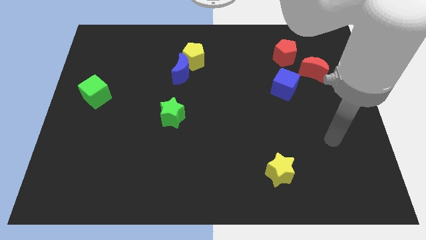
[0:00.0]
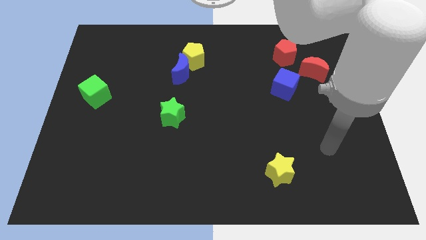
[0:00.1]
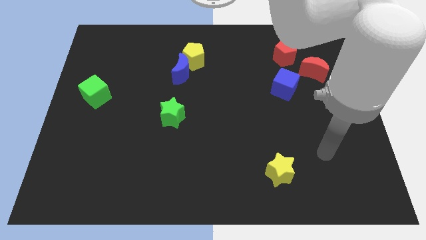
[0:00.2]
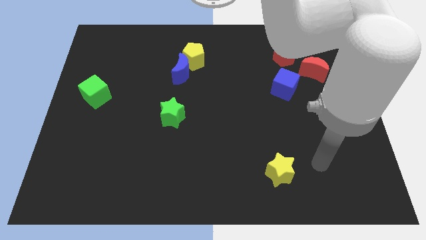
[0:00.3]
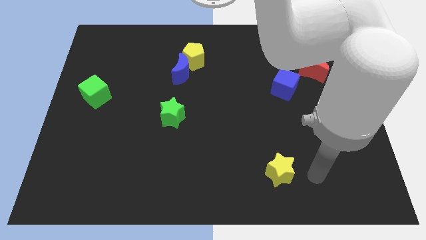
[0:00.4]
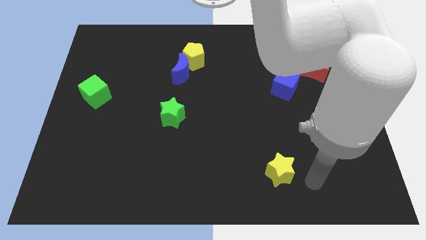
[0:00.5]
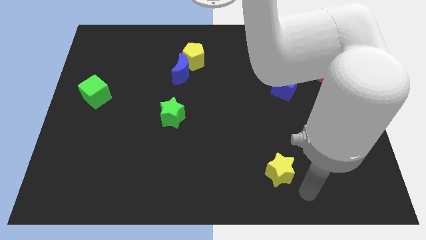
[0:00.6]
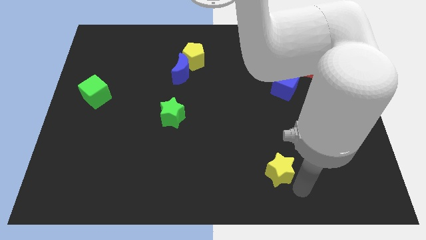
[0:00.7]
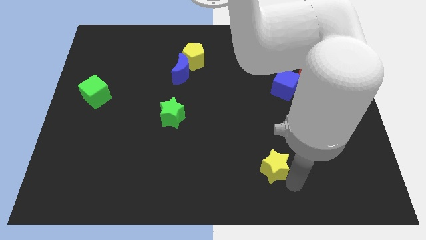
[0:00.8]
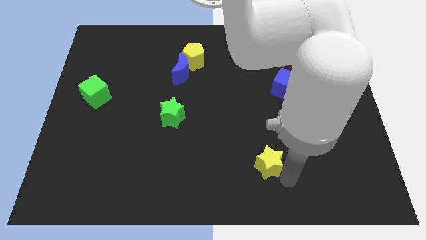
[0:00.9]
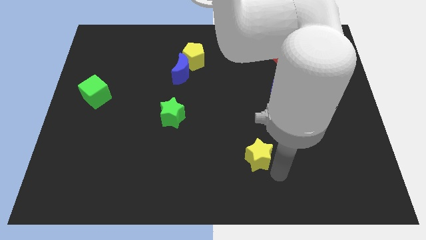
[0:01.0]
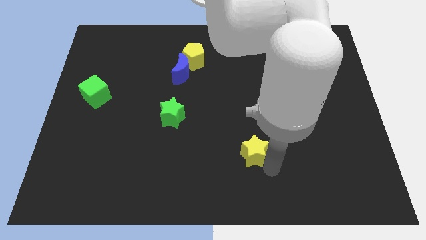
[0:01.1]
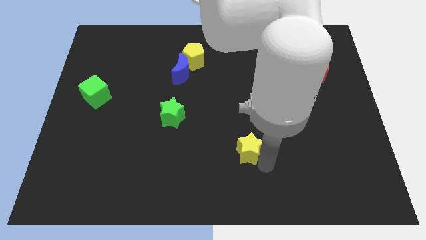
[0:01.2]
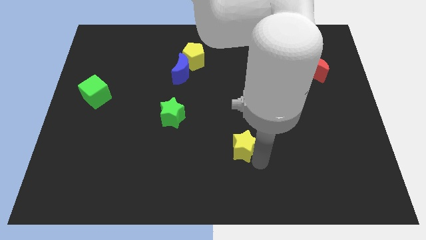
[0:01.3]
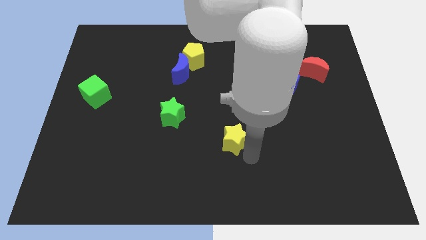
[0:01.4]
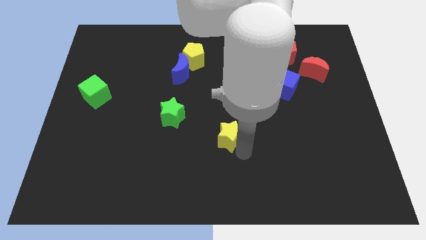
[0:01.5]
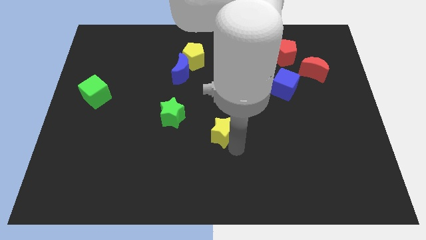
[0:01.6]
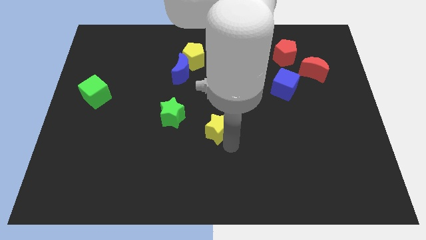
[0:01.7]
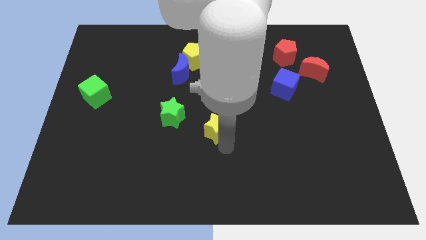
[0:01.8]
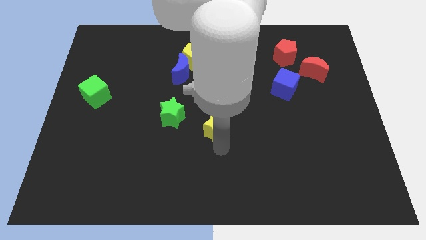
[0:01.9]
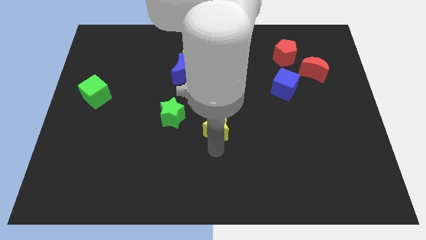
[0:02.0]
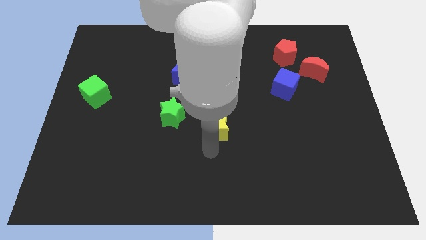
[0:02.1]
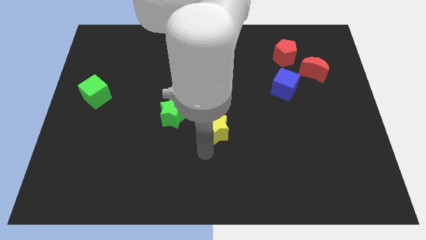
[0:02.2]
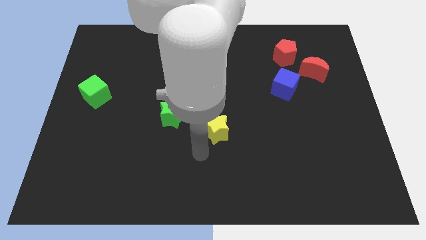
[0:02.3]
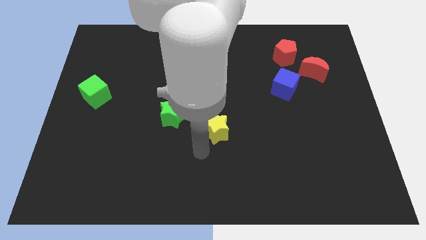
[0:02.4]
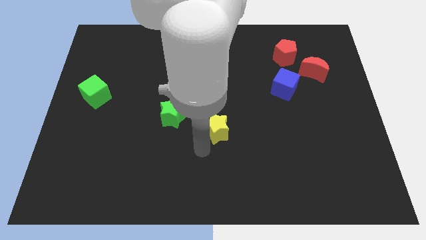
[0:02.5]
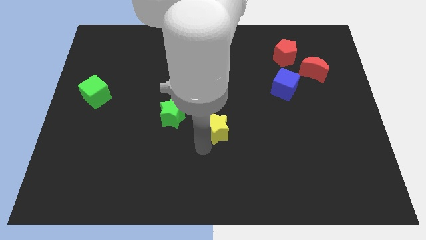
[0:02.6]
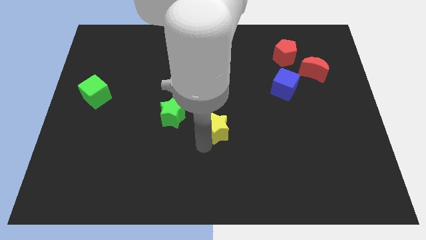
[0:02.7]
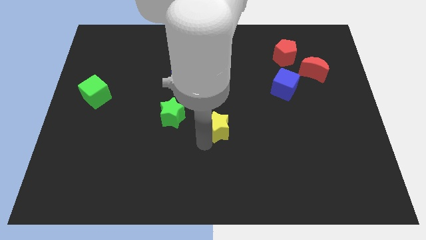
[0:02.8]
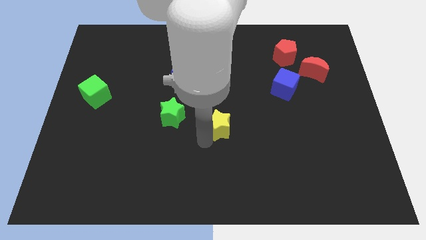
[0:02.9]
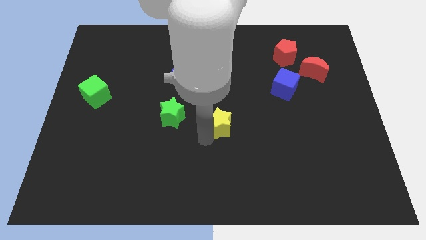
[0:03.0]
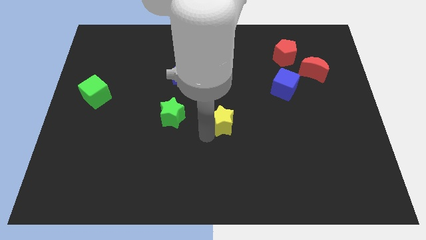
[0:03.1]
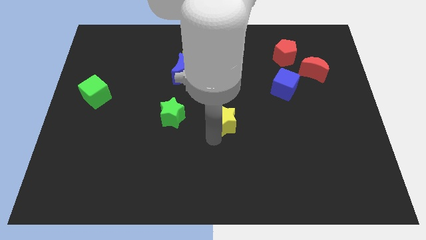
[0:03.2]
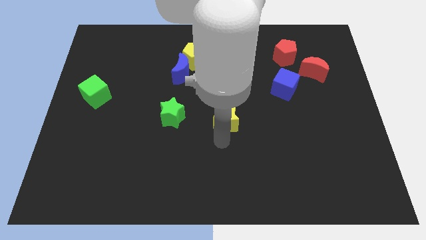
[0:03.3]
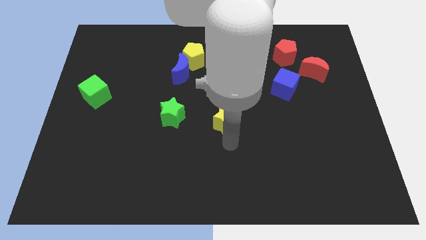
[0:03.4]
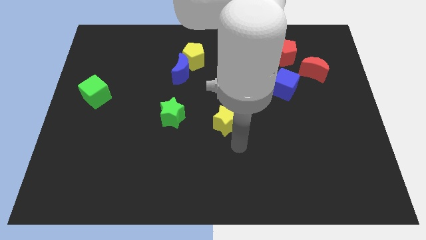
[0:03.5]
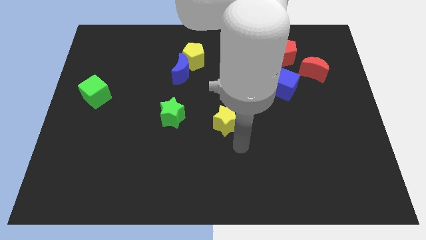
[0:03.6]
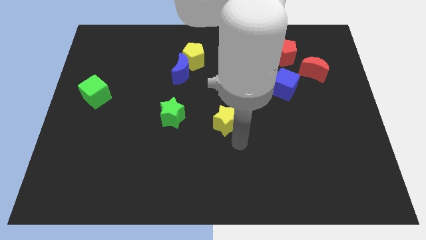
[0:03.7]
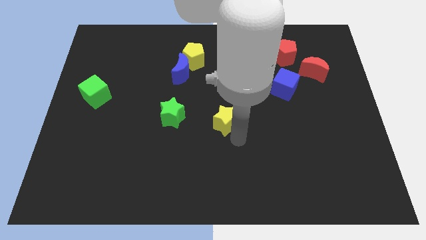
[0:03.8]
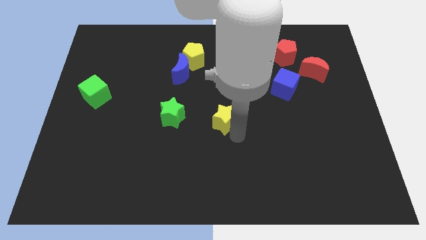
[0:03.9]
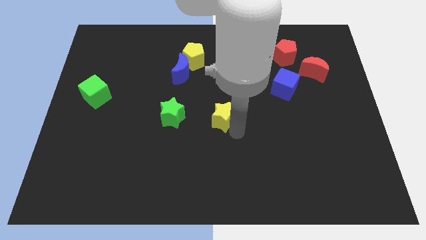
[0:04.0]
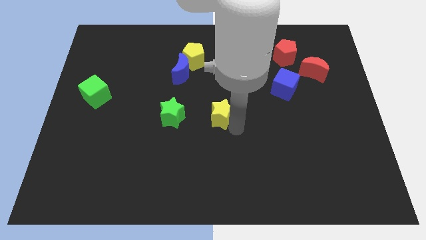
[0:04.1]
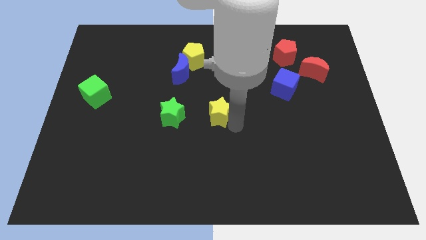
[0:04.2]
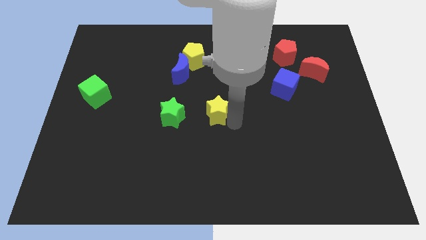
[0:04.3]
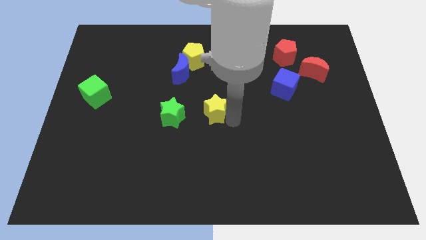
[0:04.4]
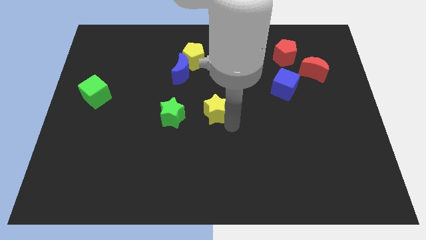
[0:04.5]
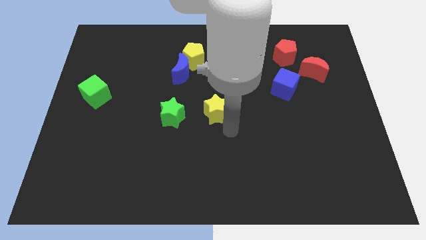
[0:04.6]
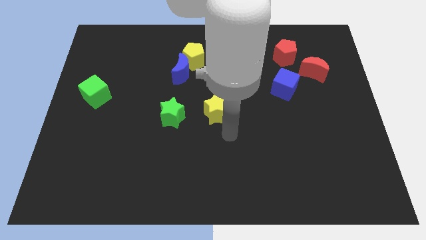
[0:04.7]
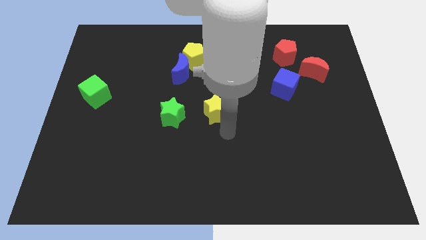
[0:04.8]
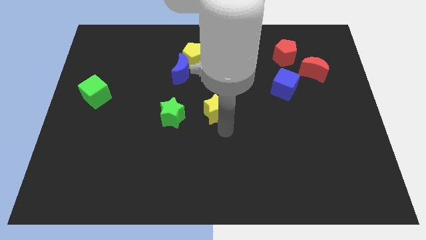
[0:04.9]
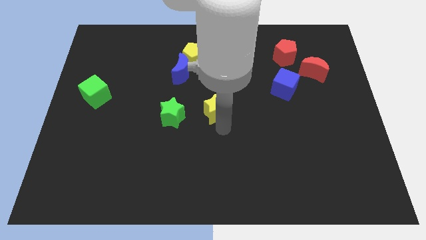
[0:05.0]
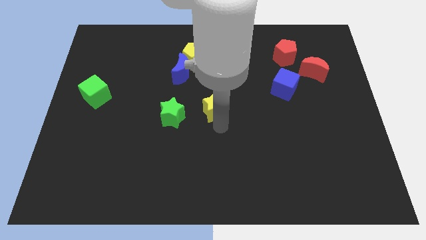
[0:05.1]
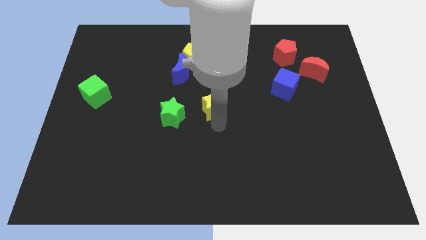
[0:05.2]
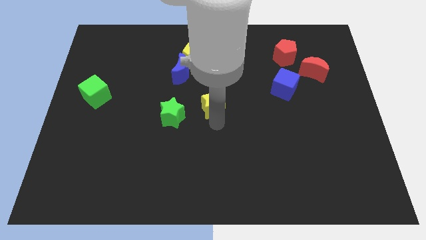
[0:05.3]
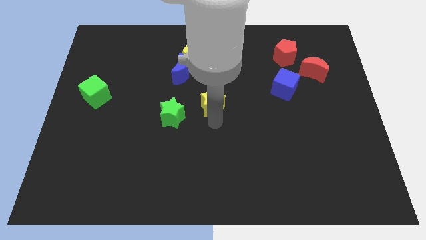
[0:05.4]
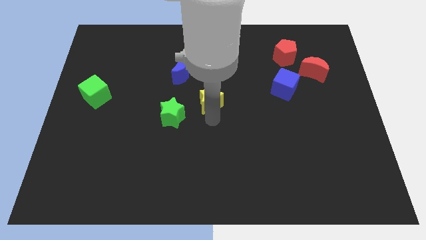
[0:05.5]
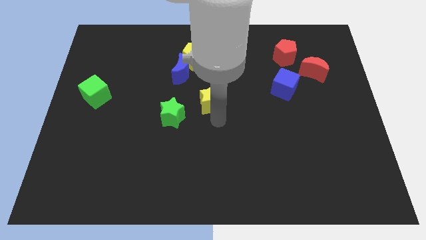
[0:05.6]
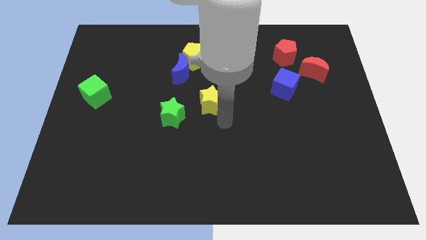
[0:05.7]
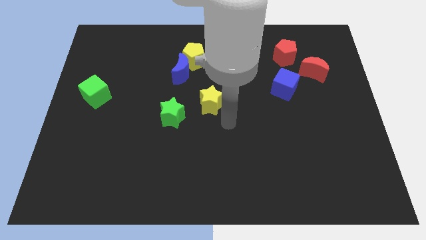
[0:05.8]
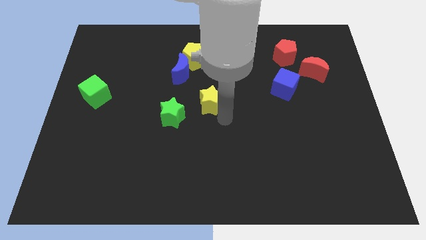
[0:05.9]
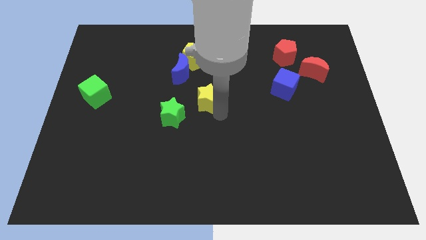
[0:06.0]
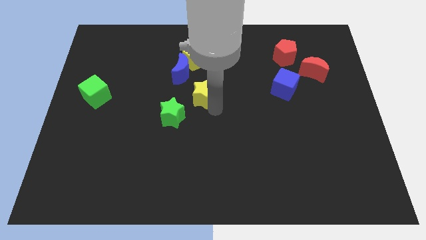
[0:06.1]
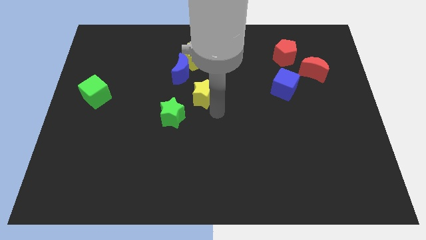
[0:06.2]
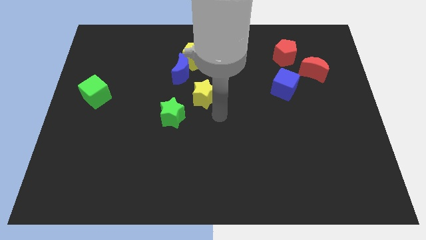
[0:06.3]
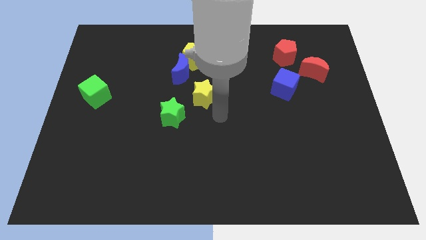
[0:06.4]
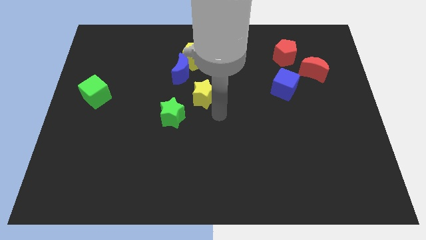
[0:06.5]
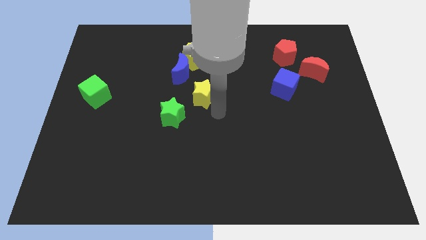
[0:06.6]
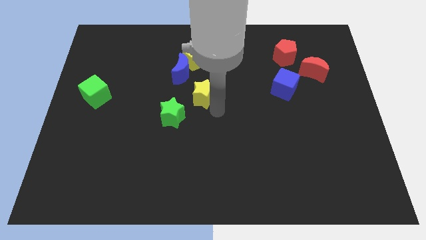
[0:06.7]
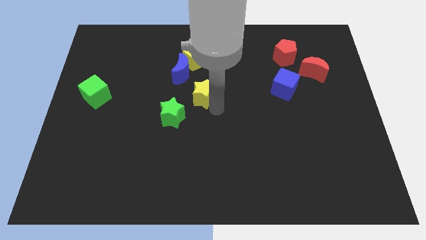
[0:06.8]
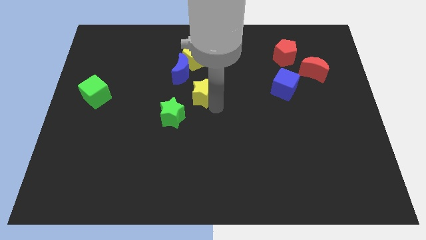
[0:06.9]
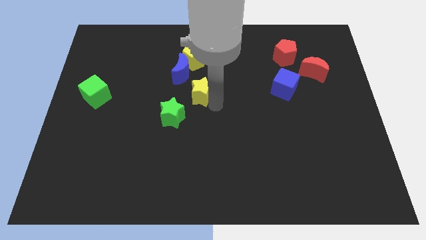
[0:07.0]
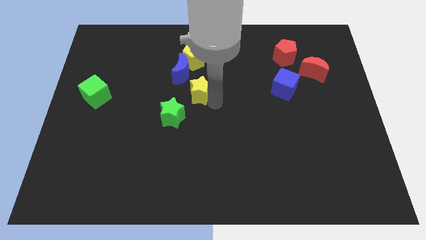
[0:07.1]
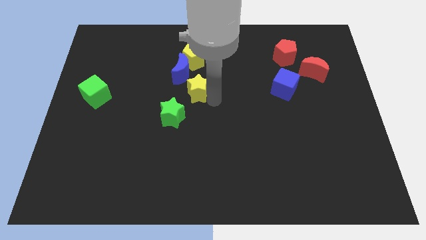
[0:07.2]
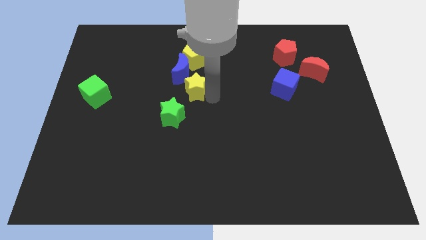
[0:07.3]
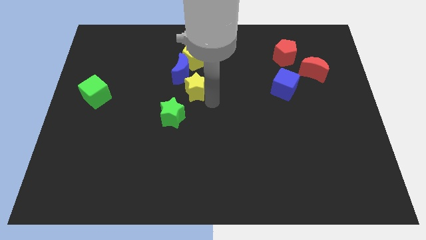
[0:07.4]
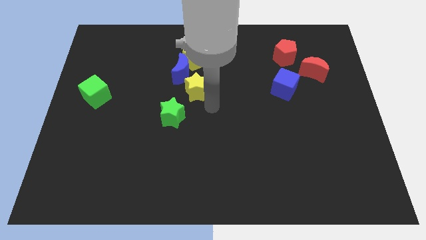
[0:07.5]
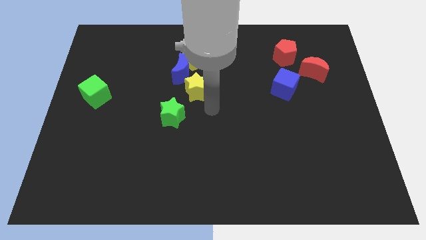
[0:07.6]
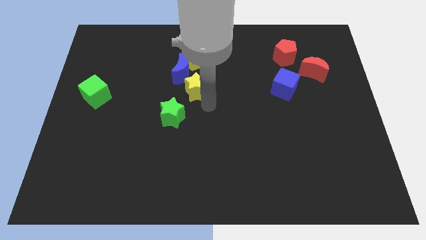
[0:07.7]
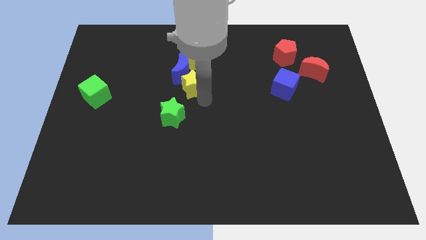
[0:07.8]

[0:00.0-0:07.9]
move the yellow star to the blue moon

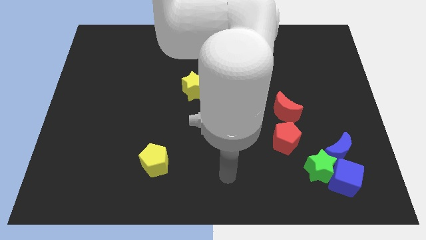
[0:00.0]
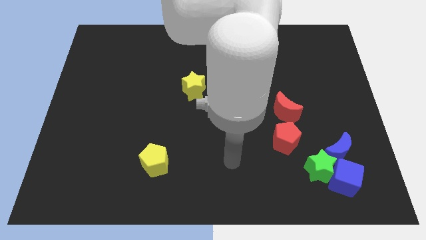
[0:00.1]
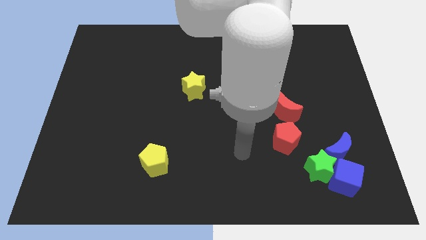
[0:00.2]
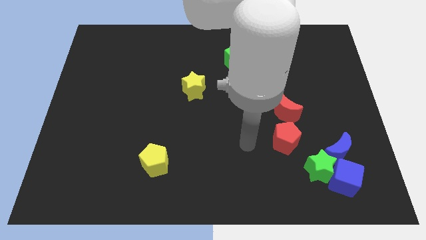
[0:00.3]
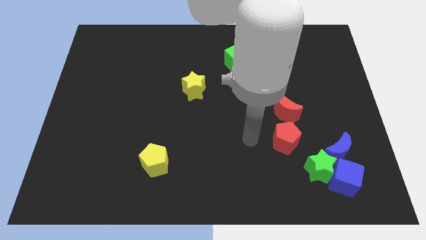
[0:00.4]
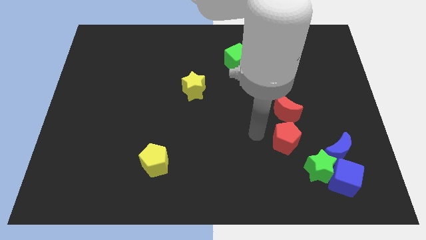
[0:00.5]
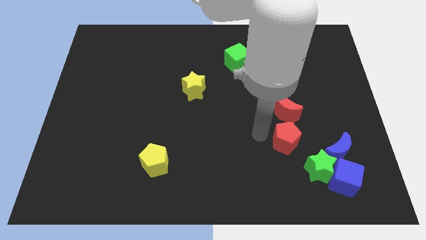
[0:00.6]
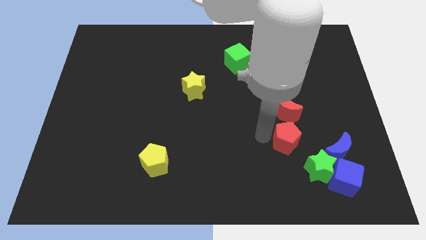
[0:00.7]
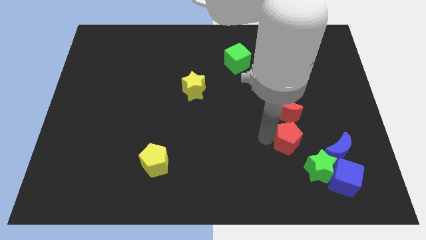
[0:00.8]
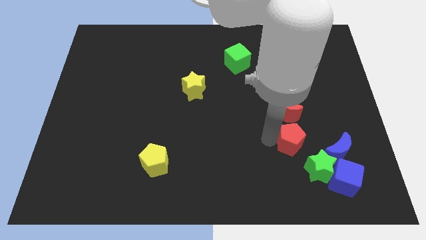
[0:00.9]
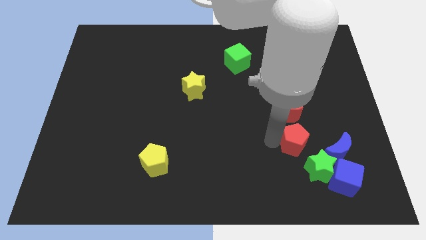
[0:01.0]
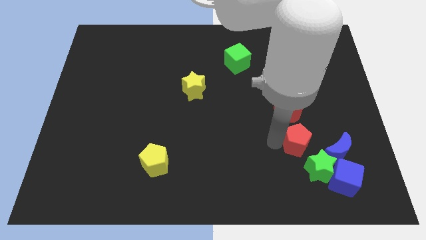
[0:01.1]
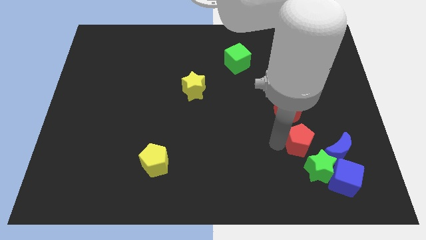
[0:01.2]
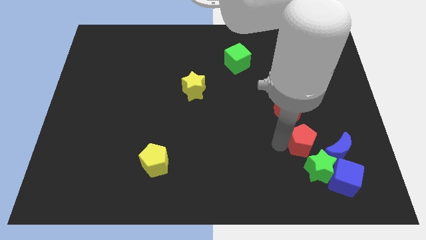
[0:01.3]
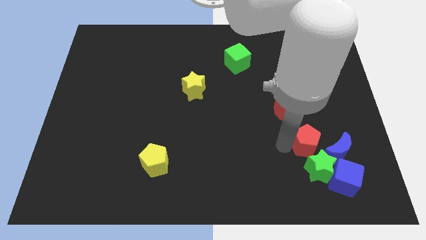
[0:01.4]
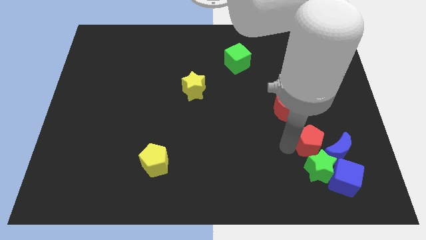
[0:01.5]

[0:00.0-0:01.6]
put the red pentagon towards the blue moon
